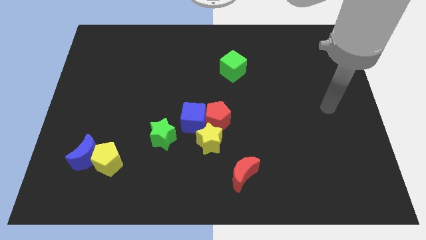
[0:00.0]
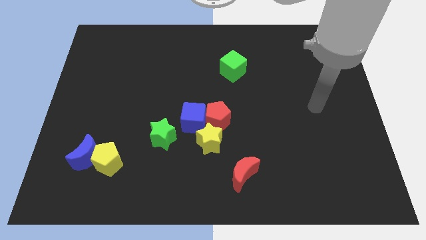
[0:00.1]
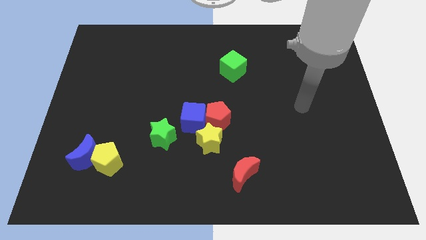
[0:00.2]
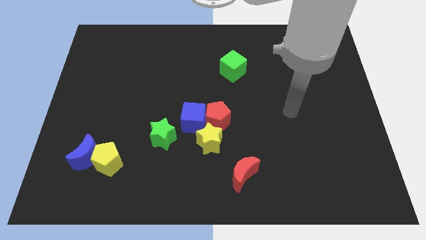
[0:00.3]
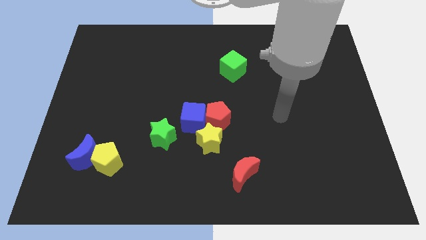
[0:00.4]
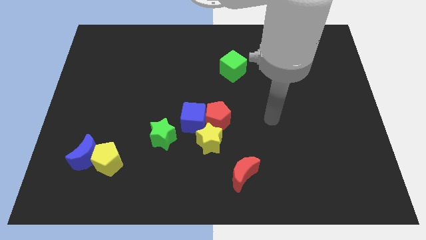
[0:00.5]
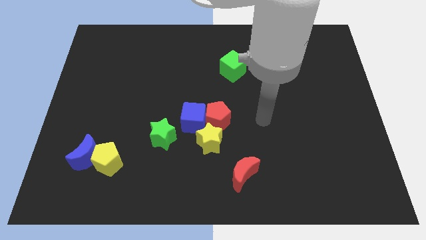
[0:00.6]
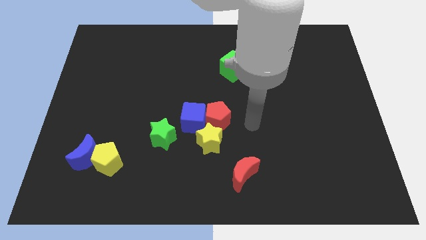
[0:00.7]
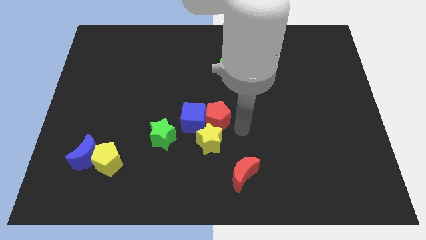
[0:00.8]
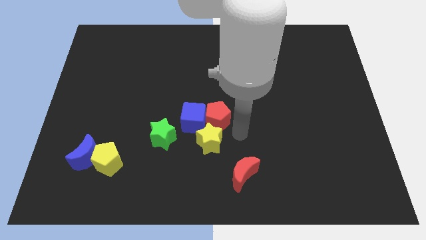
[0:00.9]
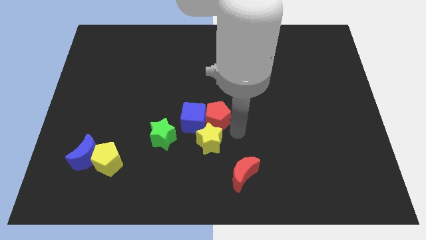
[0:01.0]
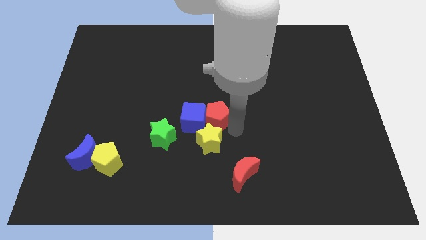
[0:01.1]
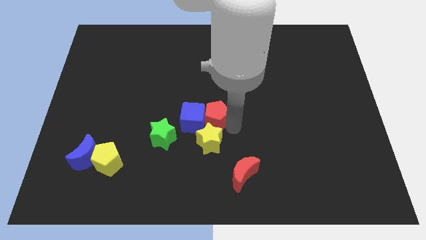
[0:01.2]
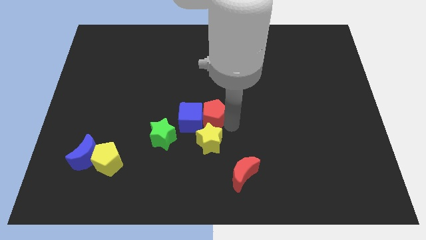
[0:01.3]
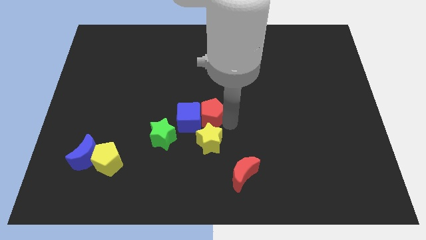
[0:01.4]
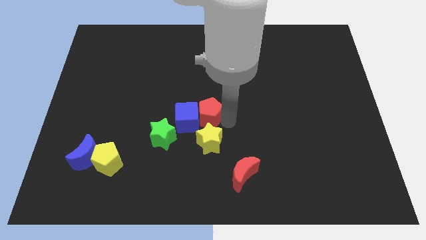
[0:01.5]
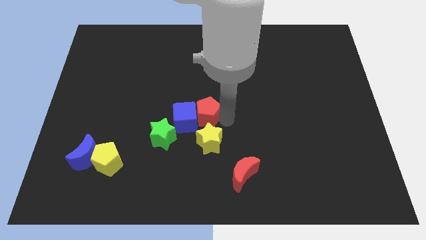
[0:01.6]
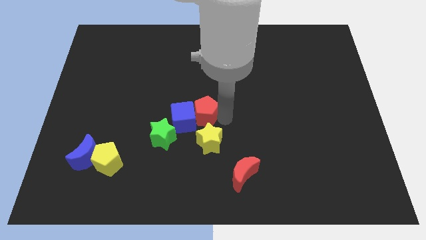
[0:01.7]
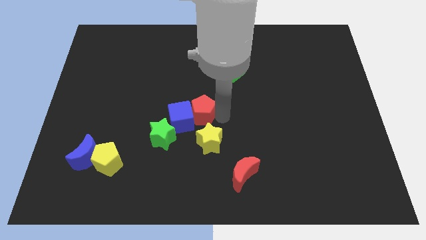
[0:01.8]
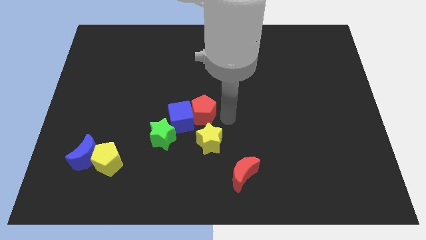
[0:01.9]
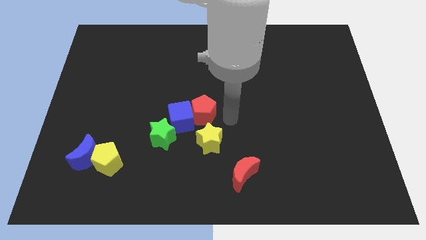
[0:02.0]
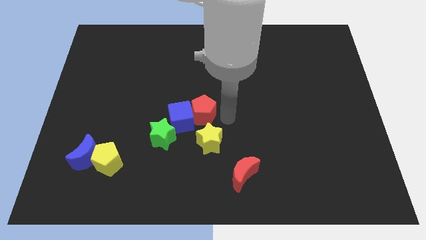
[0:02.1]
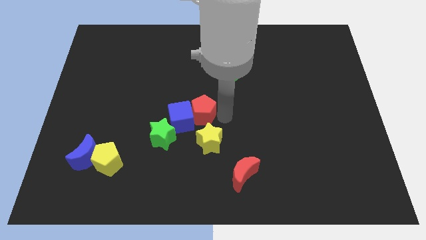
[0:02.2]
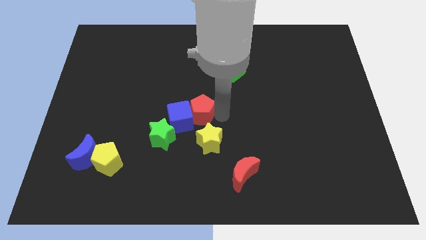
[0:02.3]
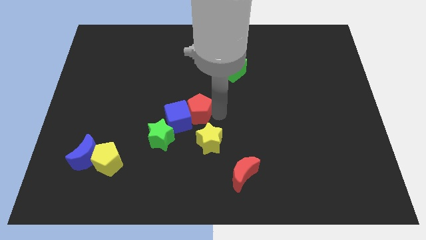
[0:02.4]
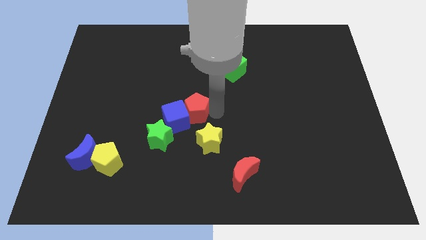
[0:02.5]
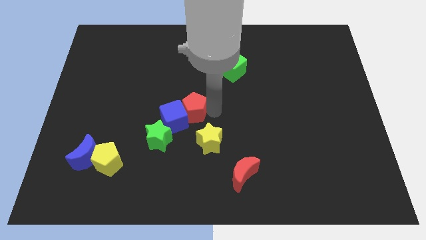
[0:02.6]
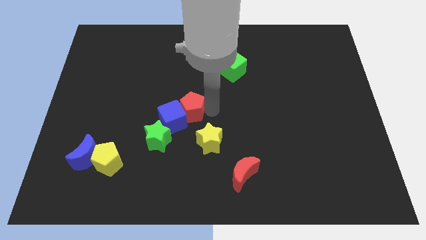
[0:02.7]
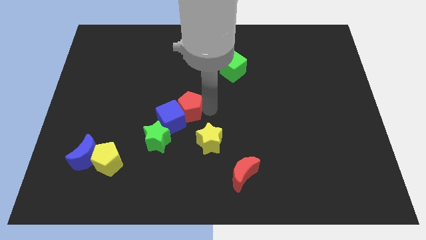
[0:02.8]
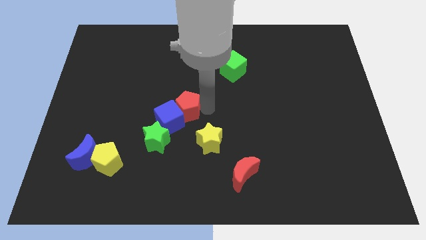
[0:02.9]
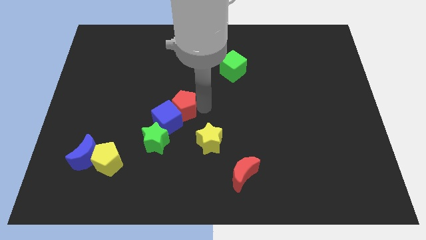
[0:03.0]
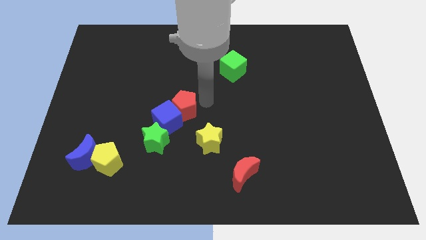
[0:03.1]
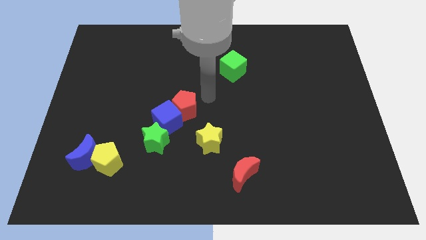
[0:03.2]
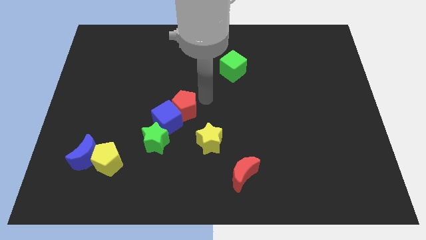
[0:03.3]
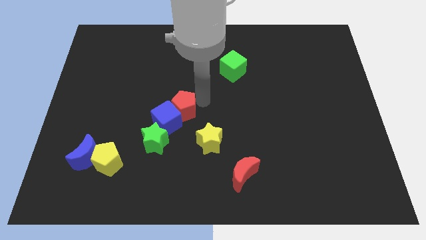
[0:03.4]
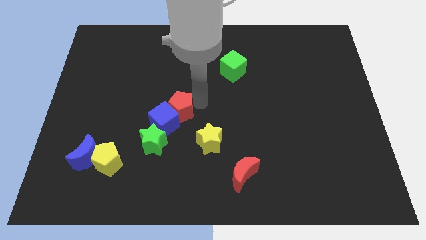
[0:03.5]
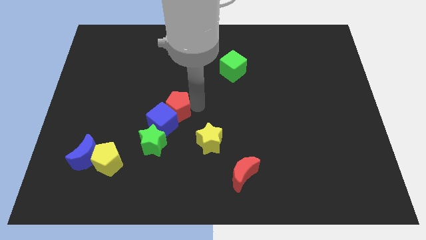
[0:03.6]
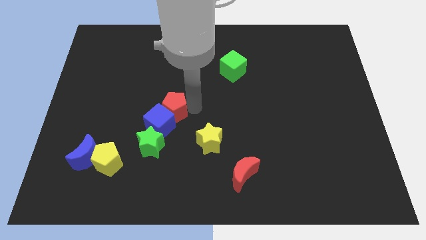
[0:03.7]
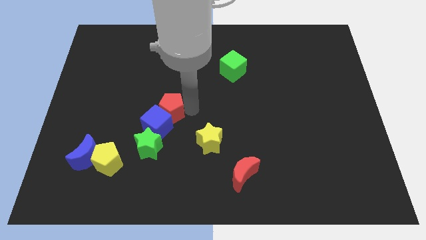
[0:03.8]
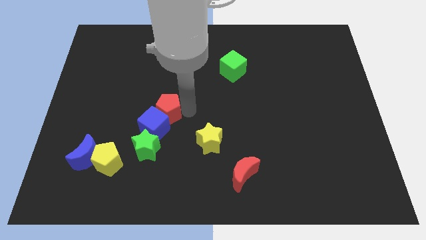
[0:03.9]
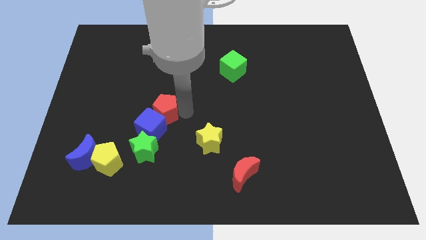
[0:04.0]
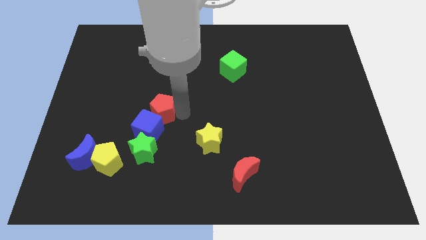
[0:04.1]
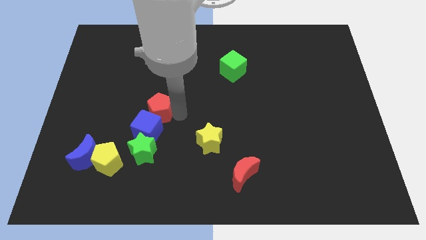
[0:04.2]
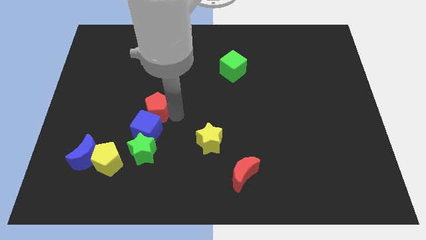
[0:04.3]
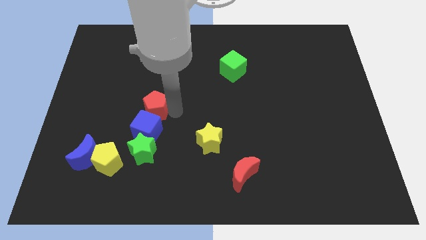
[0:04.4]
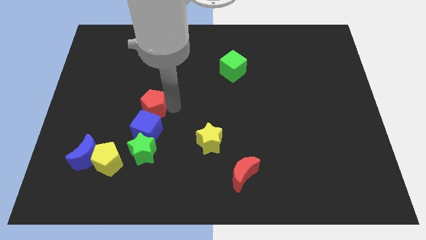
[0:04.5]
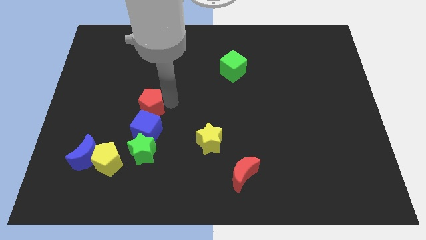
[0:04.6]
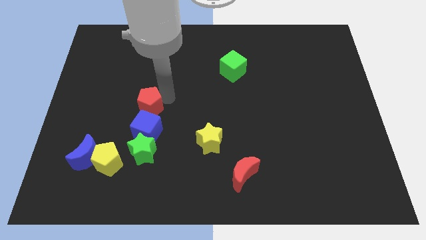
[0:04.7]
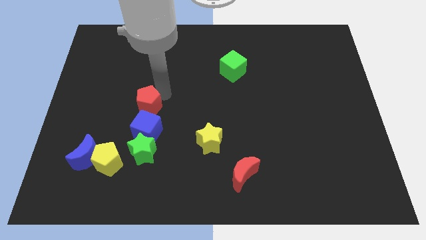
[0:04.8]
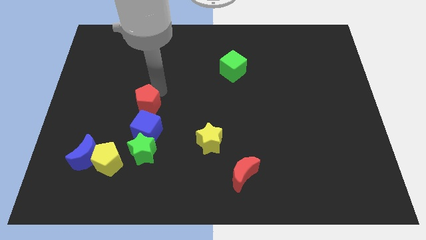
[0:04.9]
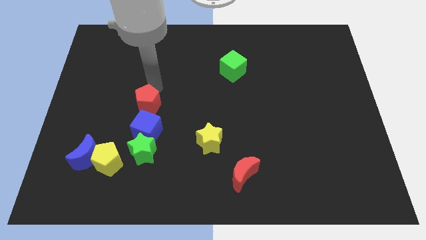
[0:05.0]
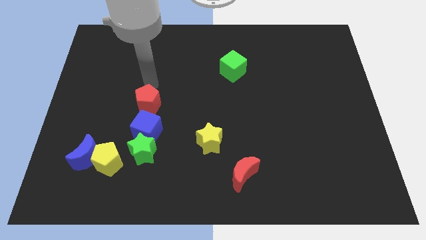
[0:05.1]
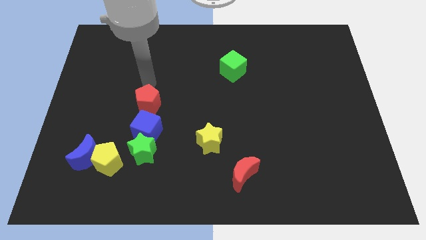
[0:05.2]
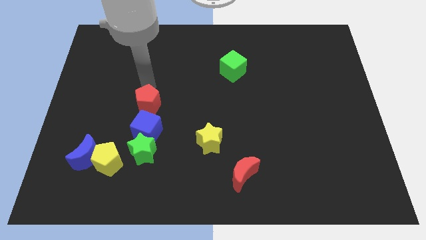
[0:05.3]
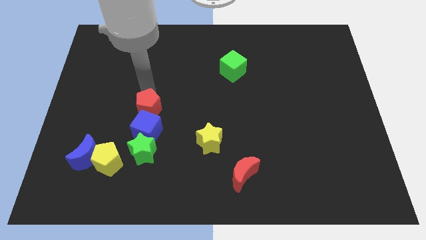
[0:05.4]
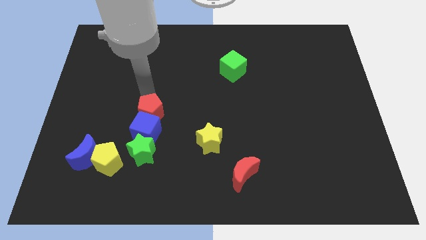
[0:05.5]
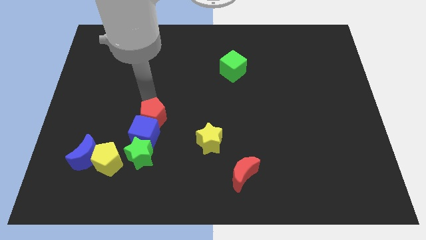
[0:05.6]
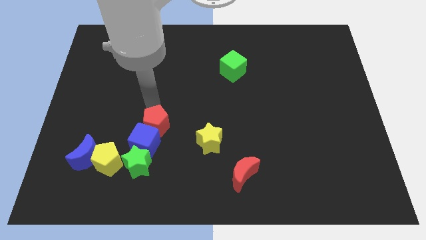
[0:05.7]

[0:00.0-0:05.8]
push the red pentagon a bit downwards and then to the left

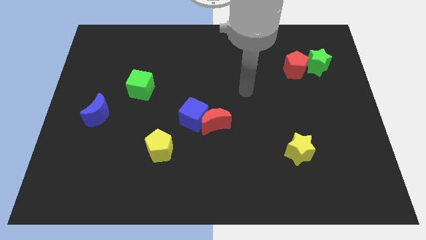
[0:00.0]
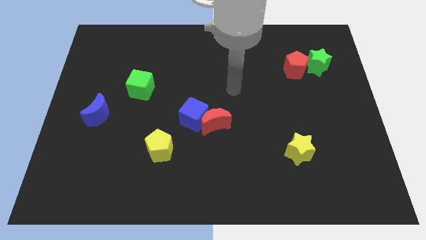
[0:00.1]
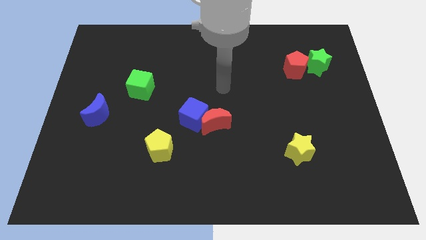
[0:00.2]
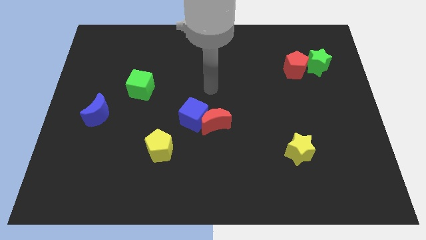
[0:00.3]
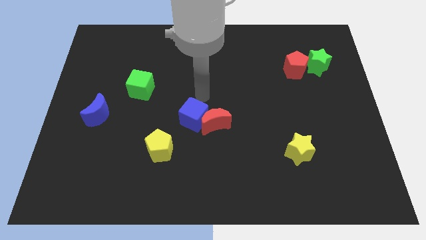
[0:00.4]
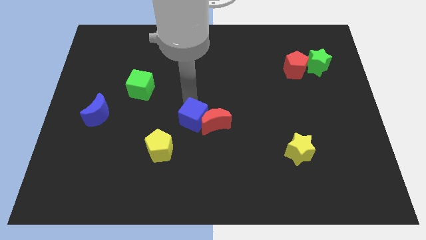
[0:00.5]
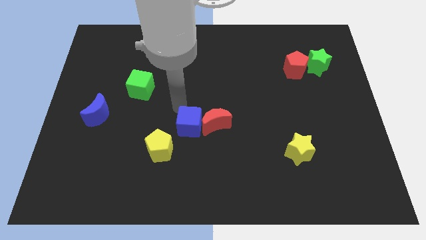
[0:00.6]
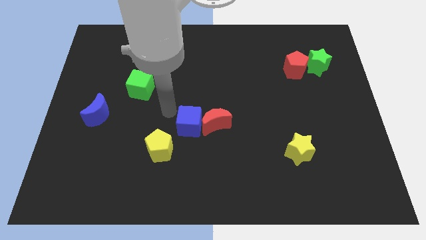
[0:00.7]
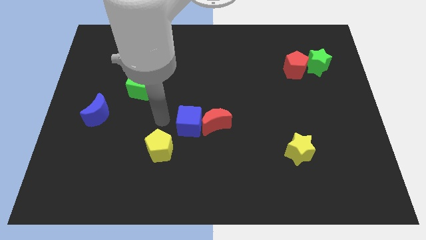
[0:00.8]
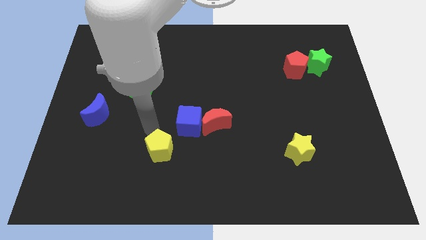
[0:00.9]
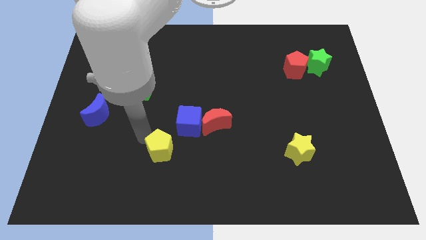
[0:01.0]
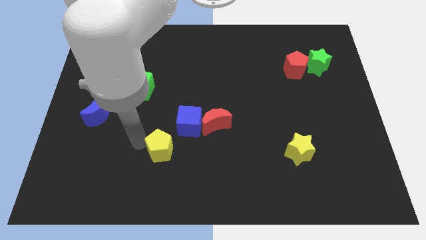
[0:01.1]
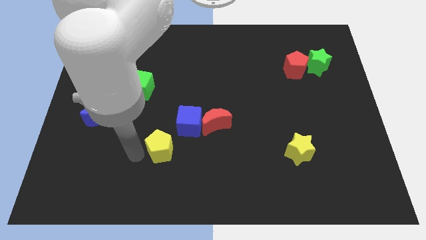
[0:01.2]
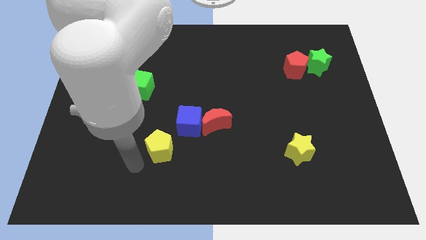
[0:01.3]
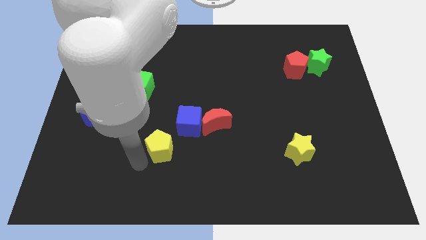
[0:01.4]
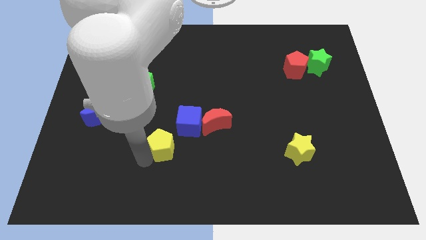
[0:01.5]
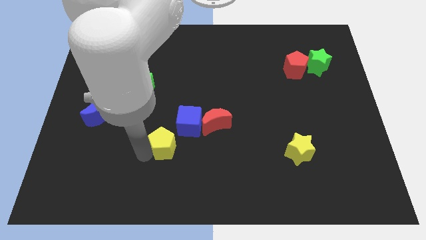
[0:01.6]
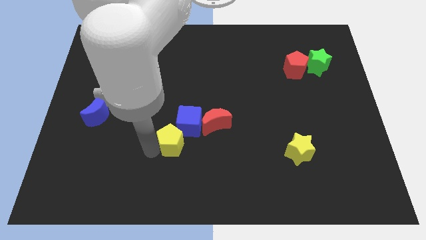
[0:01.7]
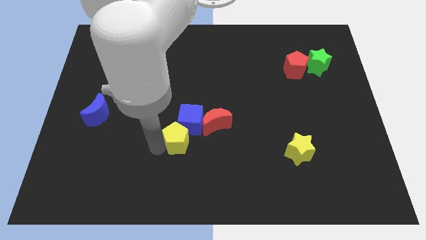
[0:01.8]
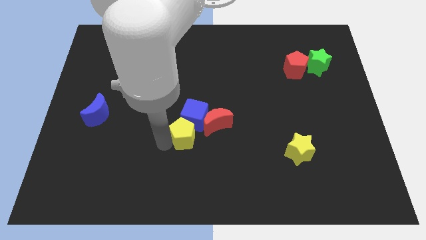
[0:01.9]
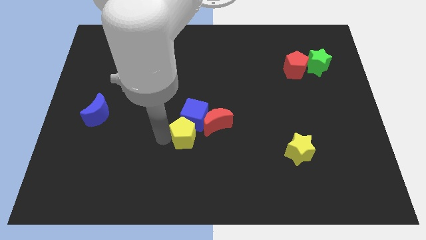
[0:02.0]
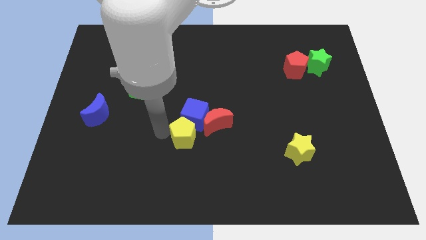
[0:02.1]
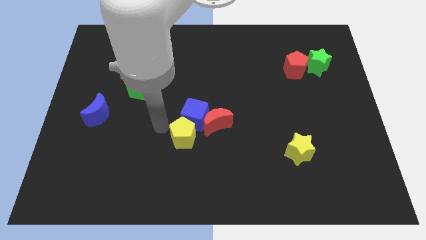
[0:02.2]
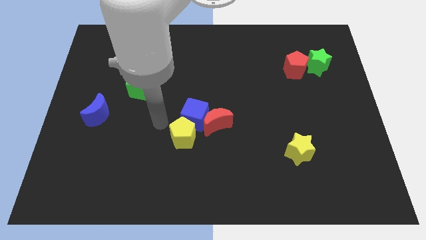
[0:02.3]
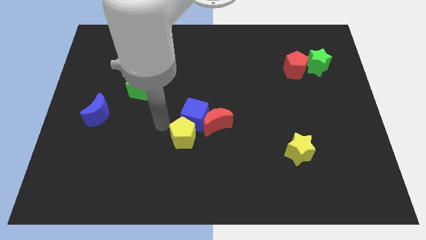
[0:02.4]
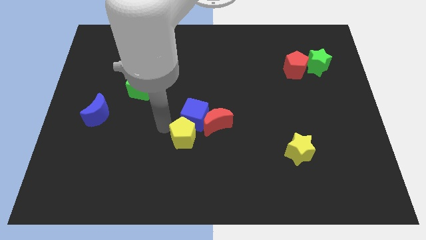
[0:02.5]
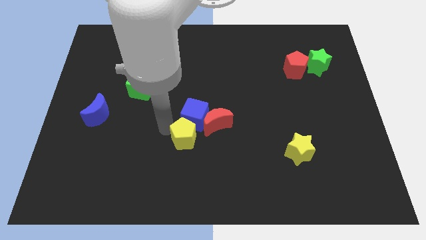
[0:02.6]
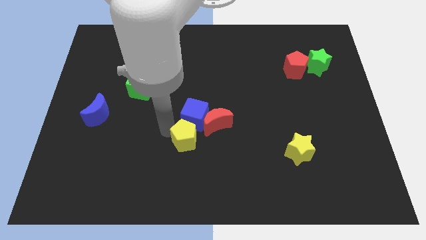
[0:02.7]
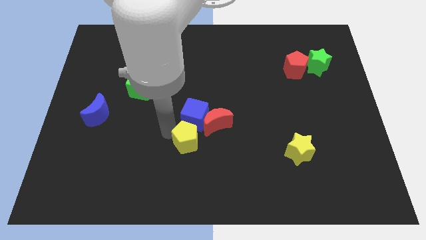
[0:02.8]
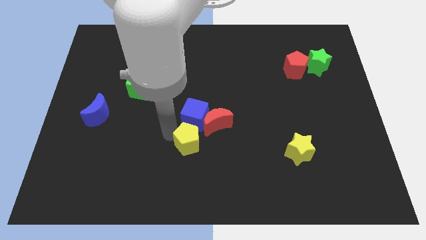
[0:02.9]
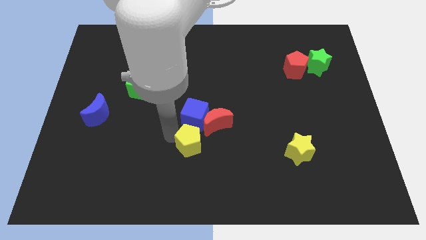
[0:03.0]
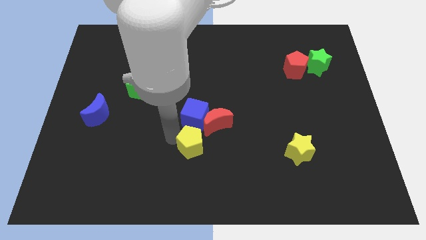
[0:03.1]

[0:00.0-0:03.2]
slightly move the yellow pentagon to the right
